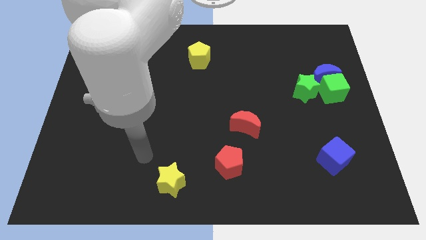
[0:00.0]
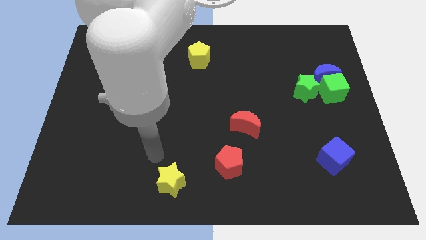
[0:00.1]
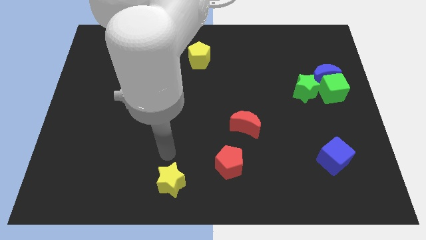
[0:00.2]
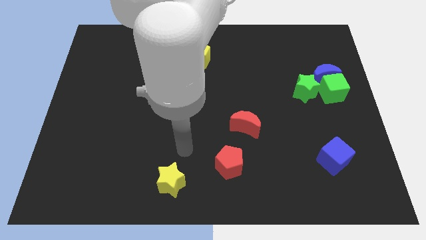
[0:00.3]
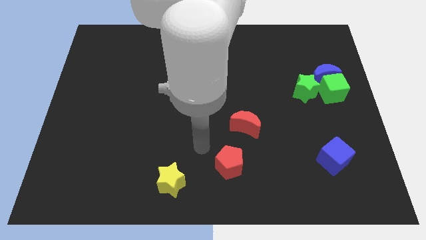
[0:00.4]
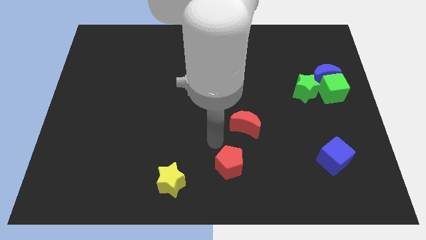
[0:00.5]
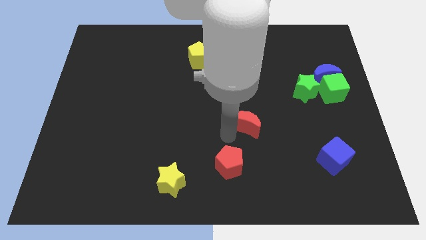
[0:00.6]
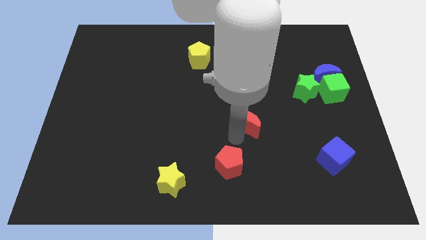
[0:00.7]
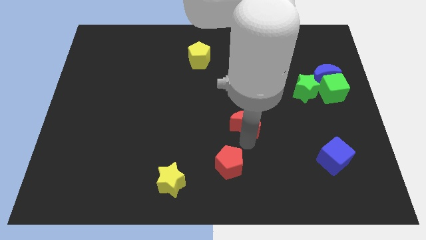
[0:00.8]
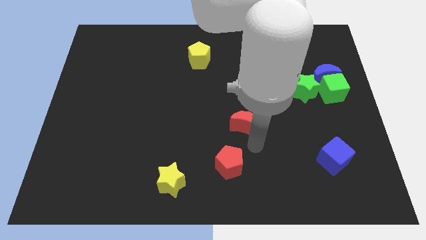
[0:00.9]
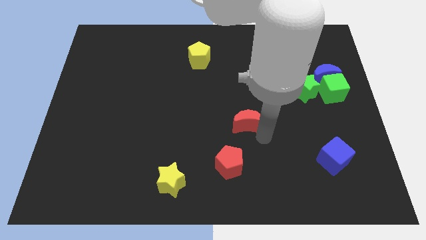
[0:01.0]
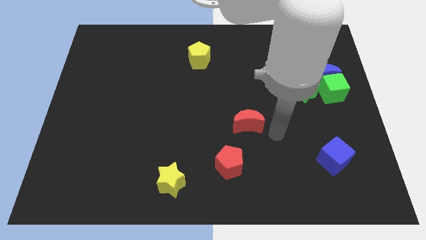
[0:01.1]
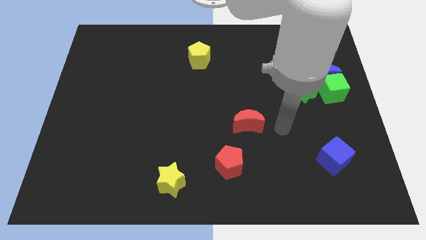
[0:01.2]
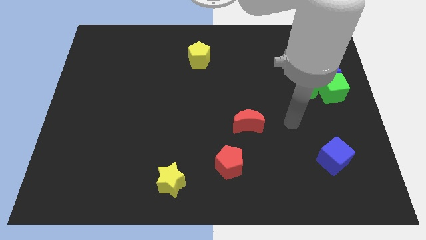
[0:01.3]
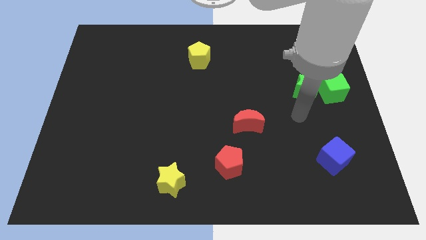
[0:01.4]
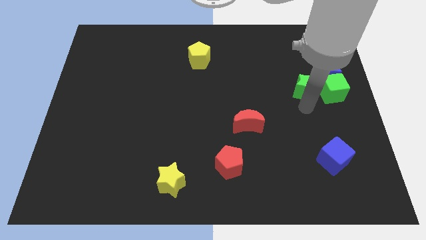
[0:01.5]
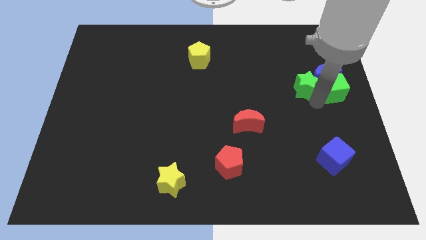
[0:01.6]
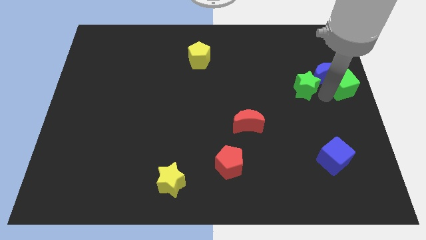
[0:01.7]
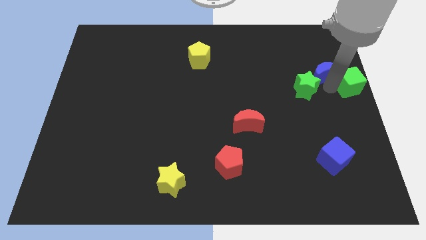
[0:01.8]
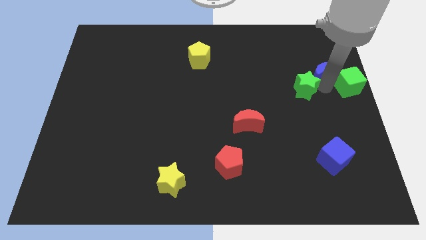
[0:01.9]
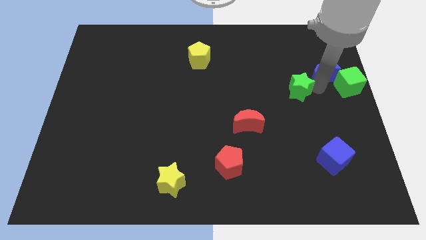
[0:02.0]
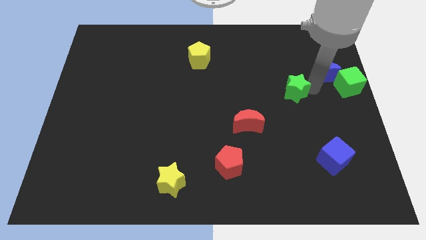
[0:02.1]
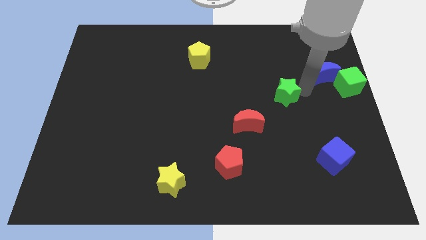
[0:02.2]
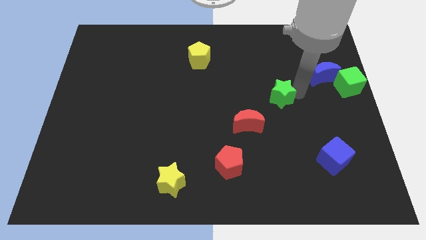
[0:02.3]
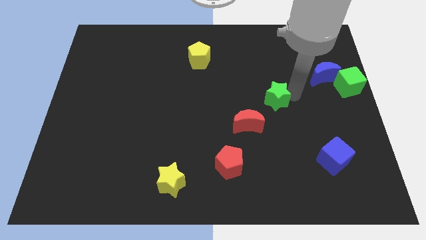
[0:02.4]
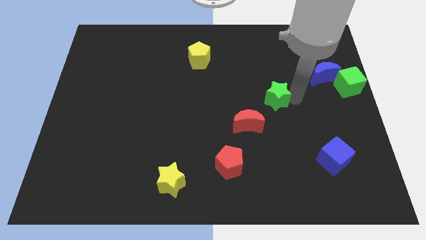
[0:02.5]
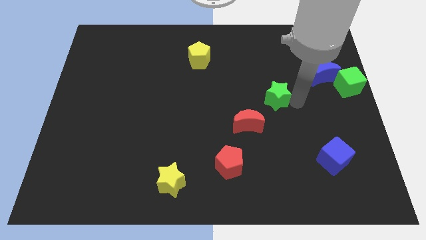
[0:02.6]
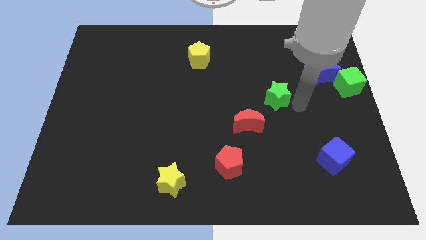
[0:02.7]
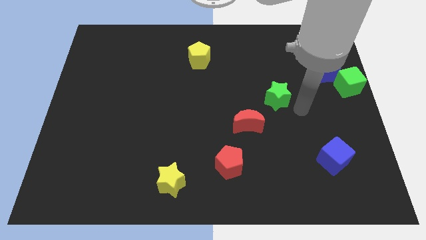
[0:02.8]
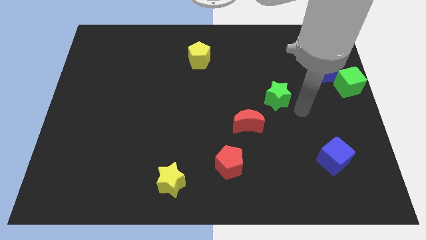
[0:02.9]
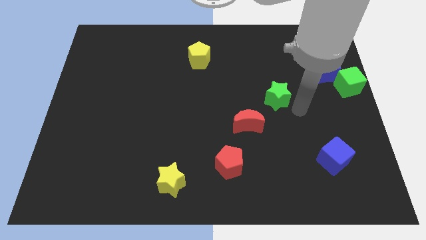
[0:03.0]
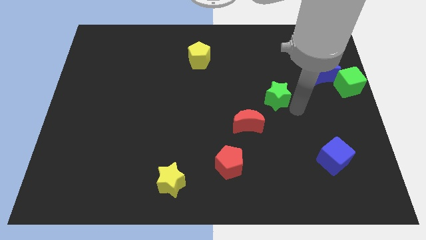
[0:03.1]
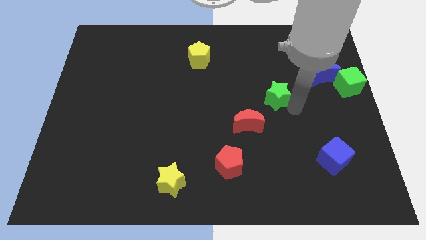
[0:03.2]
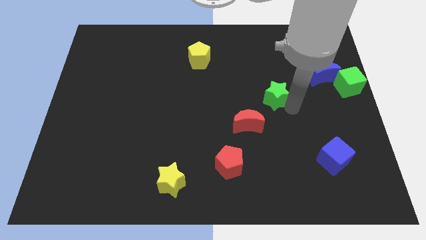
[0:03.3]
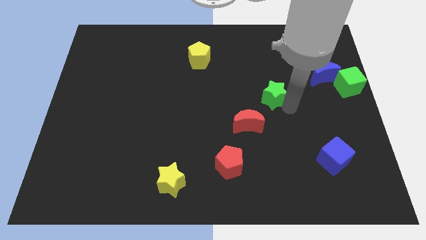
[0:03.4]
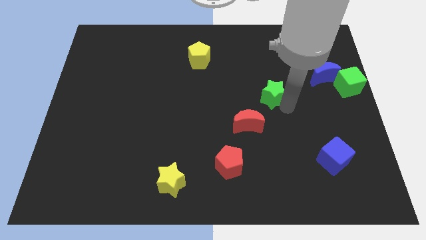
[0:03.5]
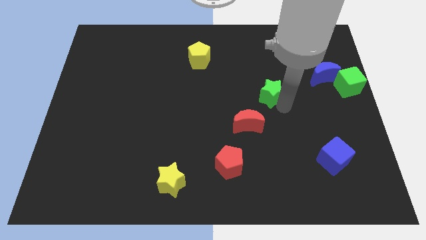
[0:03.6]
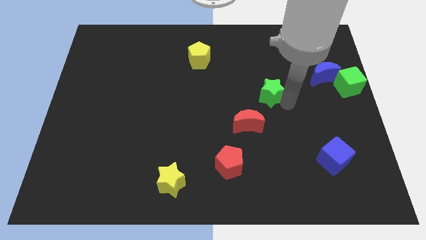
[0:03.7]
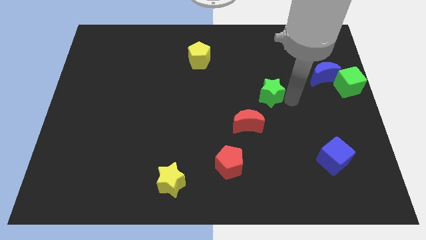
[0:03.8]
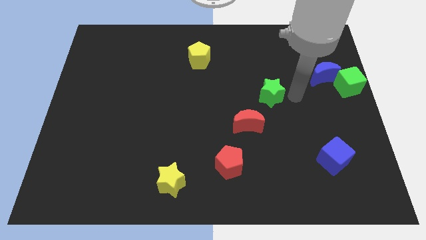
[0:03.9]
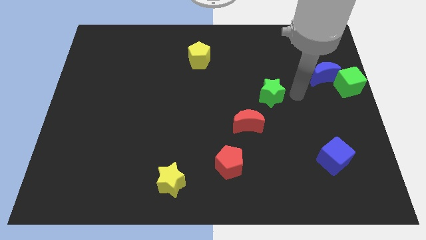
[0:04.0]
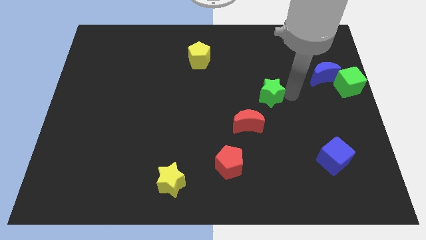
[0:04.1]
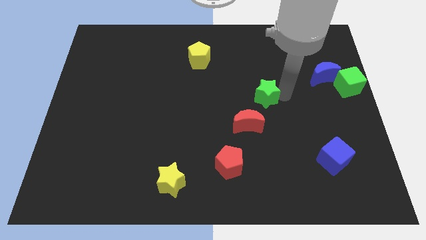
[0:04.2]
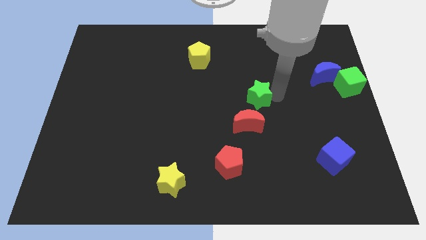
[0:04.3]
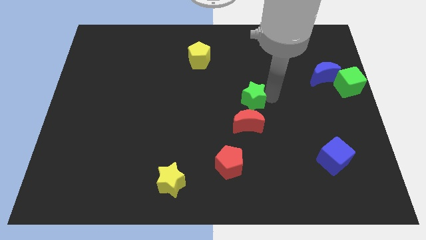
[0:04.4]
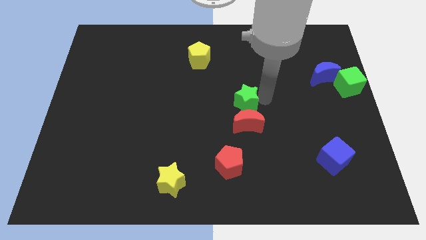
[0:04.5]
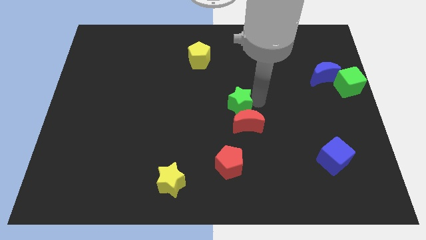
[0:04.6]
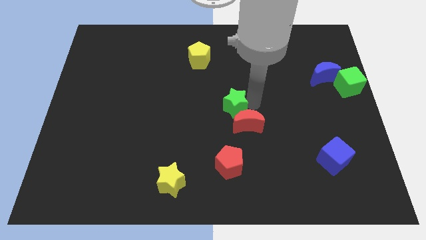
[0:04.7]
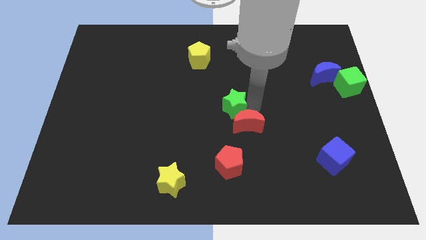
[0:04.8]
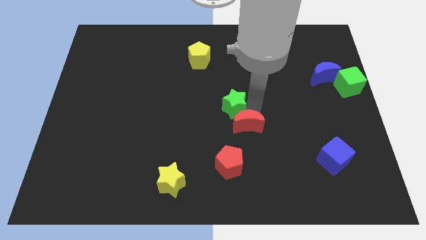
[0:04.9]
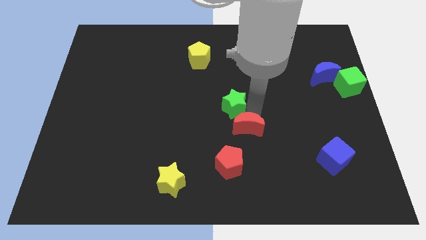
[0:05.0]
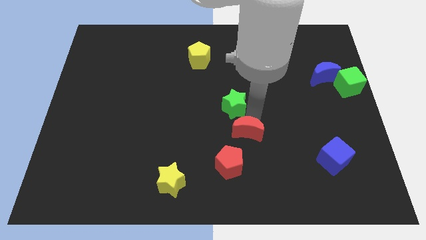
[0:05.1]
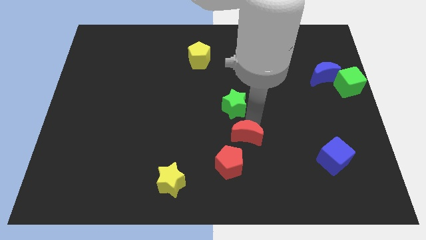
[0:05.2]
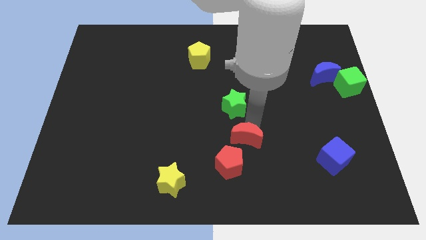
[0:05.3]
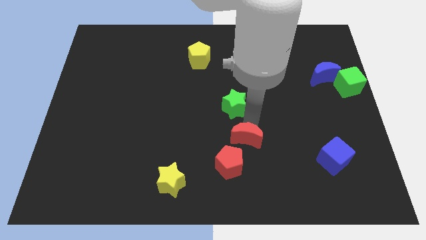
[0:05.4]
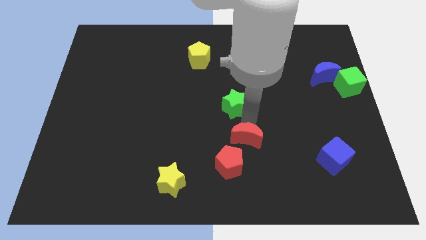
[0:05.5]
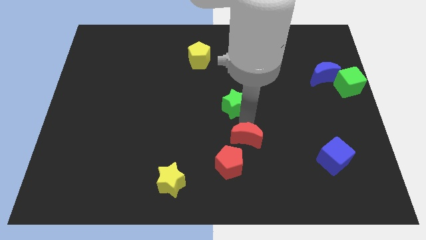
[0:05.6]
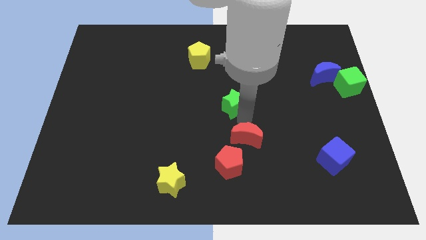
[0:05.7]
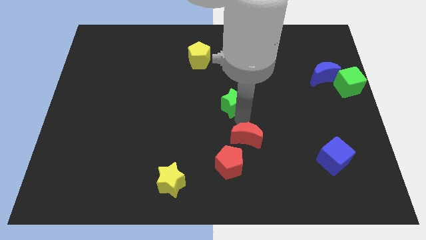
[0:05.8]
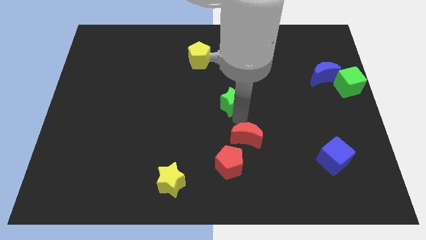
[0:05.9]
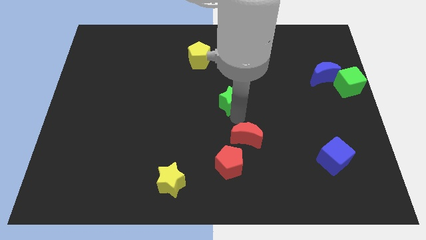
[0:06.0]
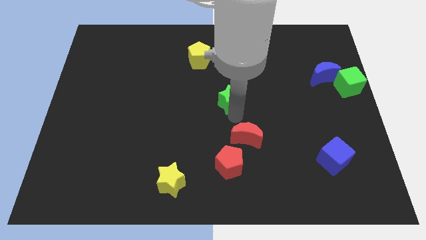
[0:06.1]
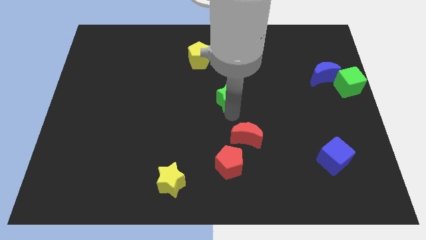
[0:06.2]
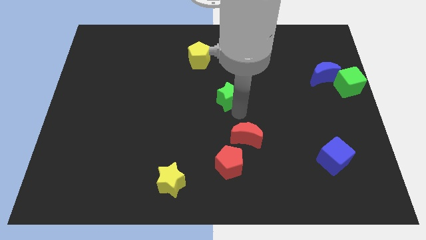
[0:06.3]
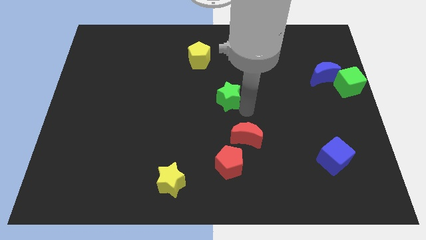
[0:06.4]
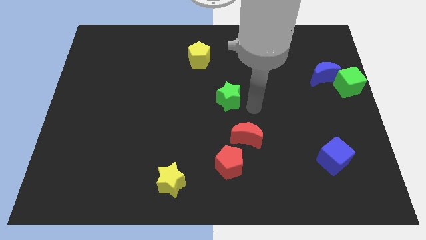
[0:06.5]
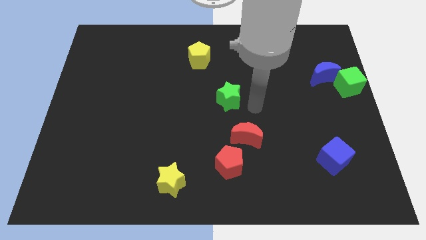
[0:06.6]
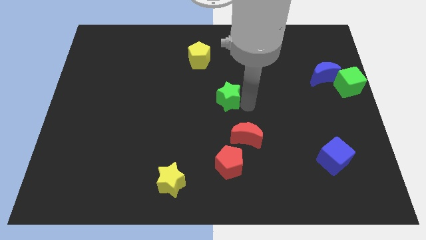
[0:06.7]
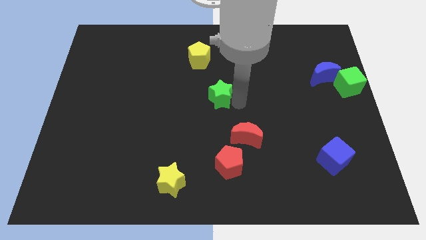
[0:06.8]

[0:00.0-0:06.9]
push the green star to the left

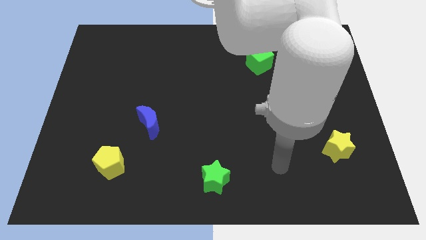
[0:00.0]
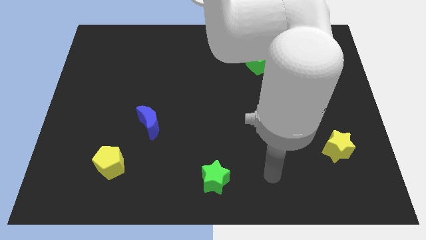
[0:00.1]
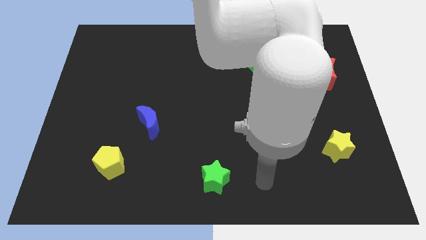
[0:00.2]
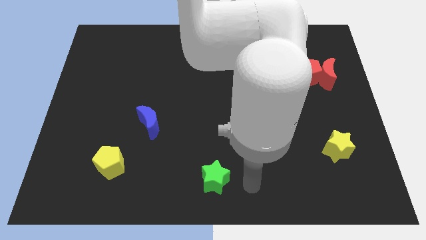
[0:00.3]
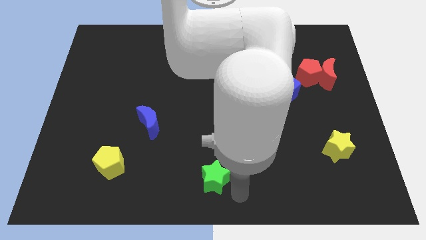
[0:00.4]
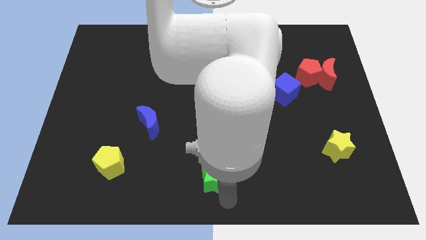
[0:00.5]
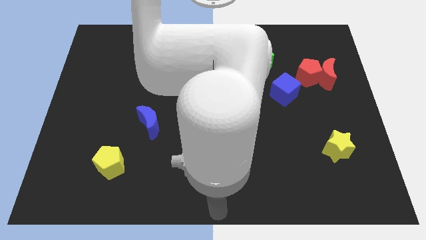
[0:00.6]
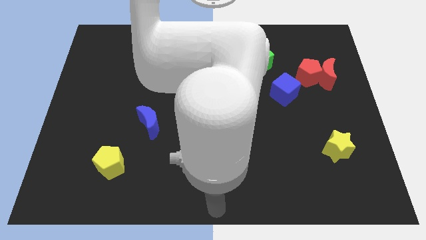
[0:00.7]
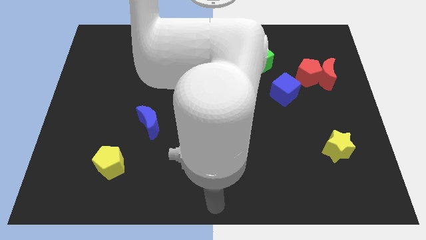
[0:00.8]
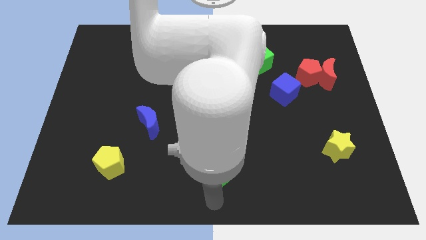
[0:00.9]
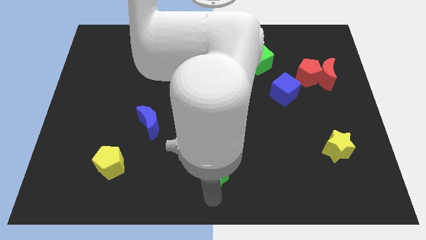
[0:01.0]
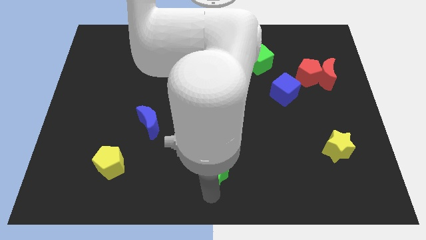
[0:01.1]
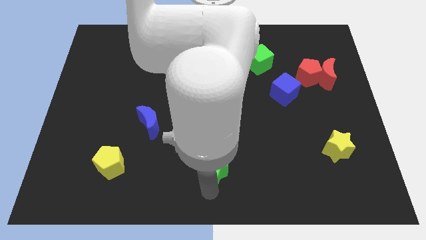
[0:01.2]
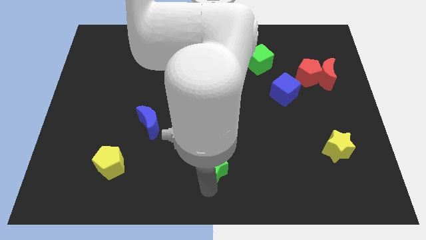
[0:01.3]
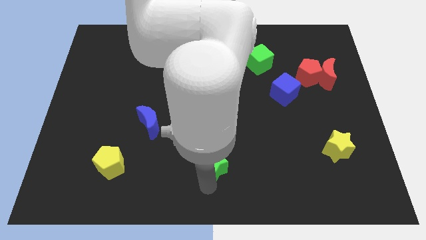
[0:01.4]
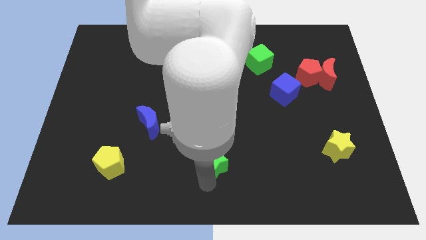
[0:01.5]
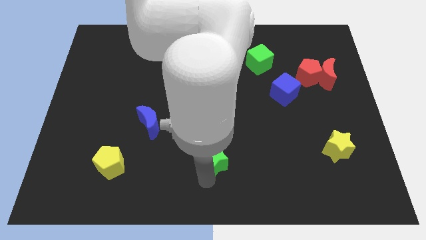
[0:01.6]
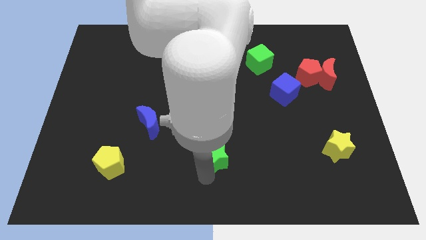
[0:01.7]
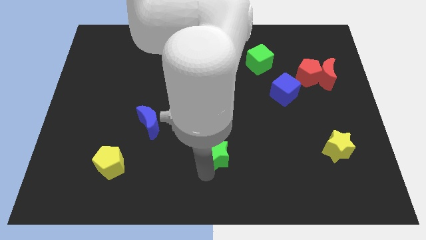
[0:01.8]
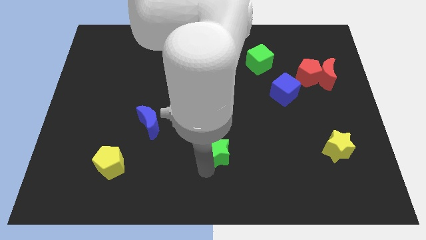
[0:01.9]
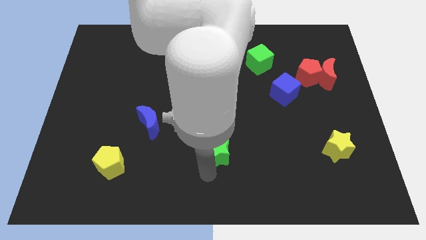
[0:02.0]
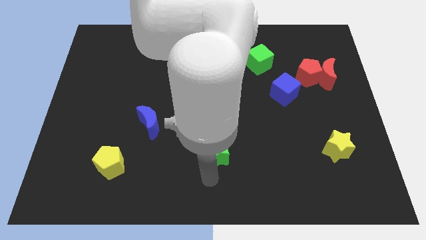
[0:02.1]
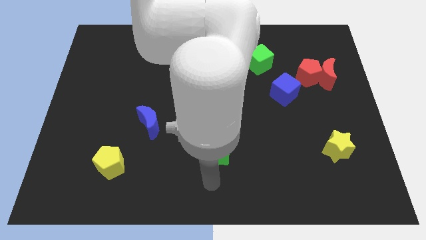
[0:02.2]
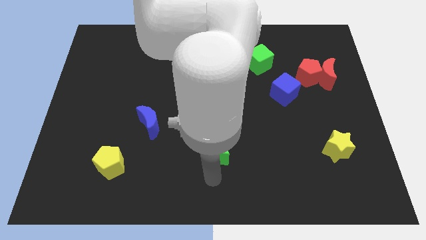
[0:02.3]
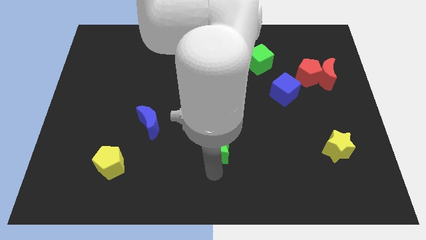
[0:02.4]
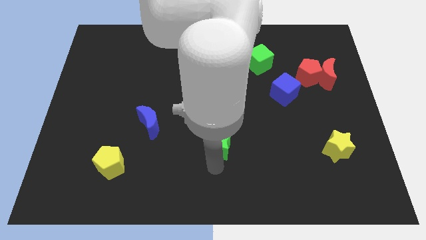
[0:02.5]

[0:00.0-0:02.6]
push the green star up a little
